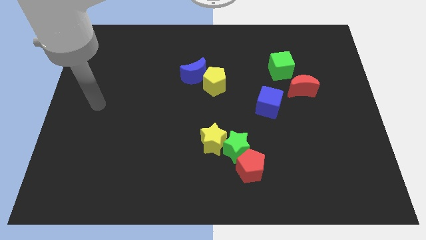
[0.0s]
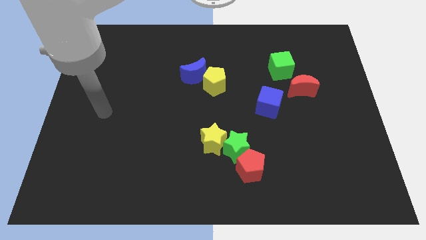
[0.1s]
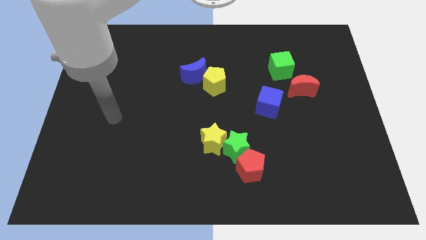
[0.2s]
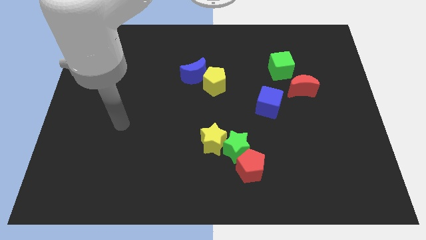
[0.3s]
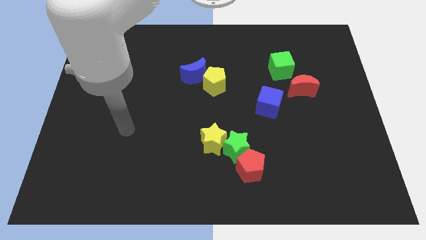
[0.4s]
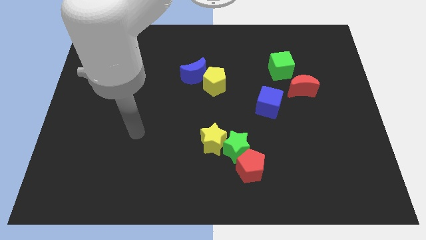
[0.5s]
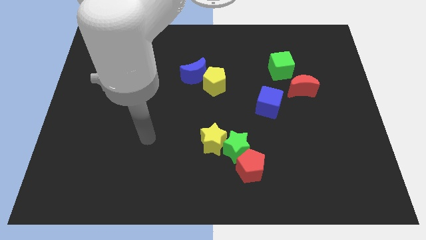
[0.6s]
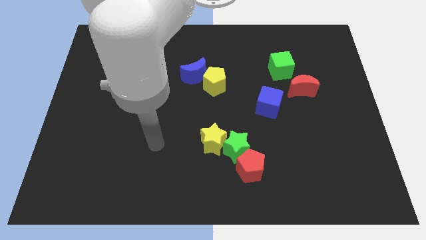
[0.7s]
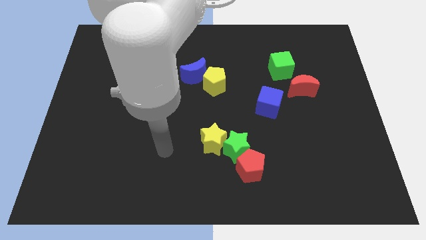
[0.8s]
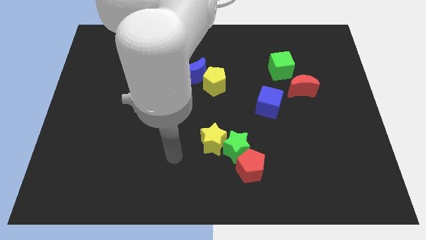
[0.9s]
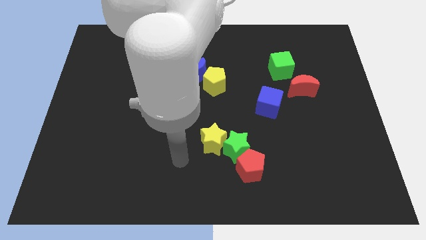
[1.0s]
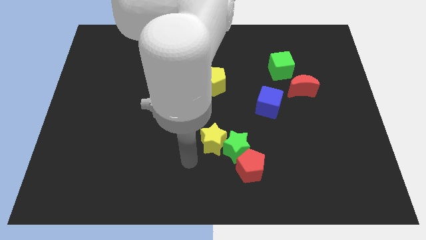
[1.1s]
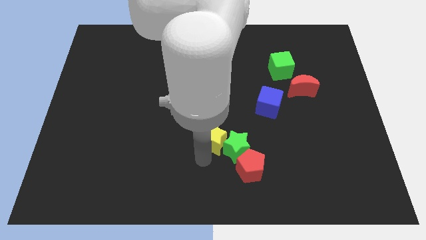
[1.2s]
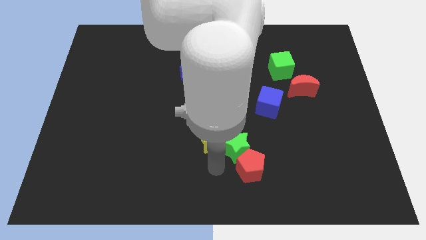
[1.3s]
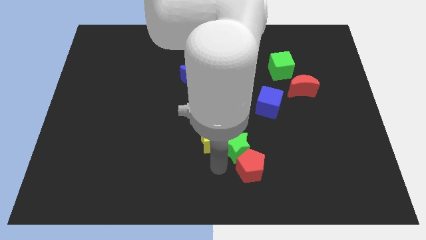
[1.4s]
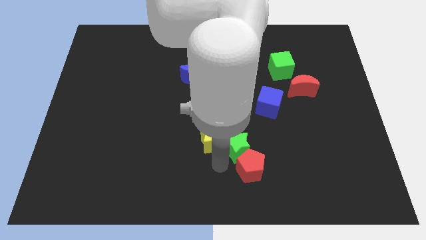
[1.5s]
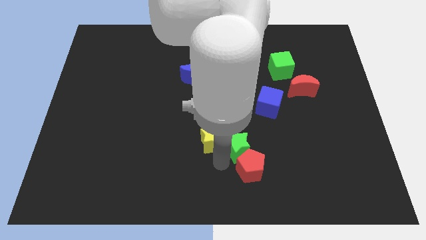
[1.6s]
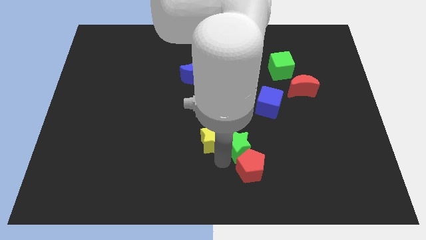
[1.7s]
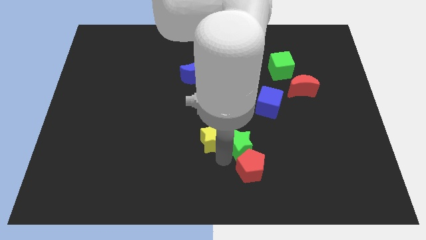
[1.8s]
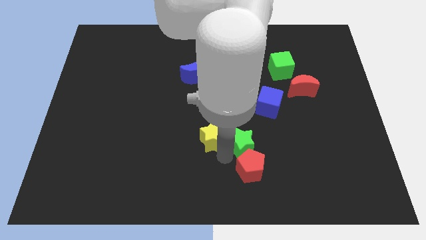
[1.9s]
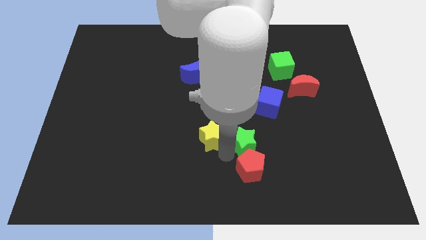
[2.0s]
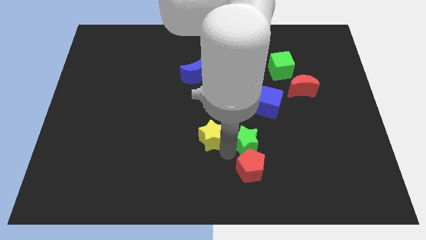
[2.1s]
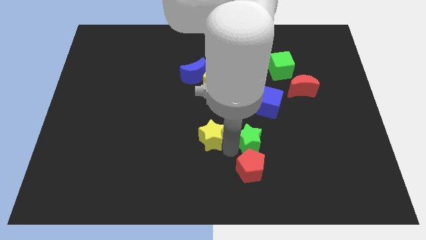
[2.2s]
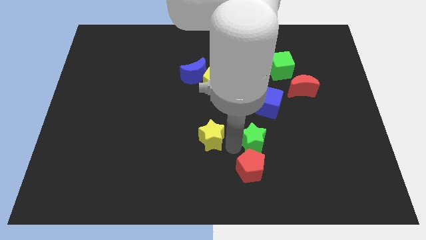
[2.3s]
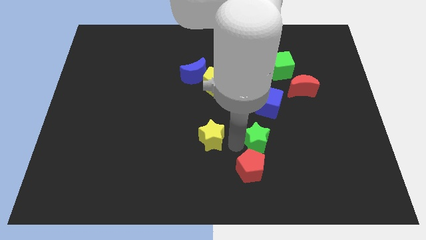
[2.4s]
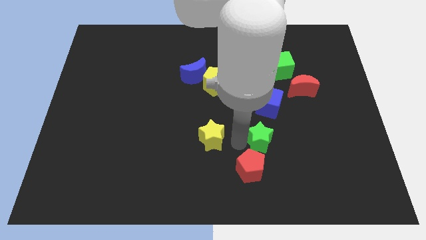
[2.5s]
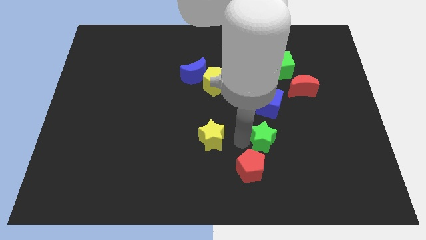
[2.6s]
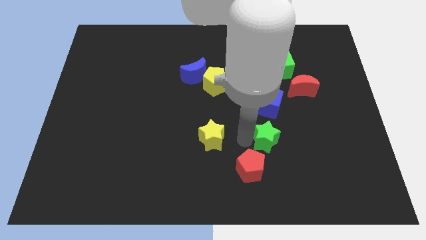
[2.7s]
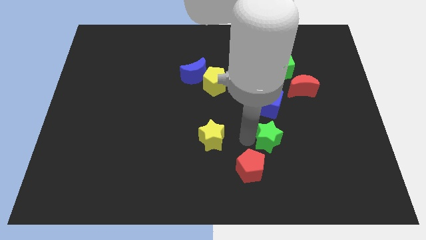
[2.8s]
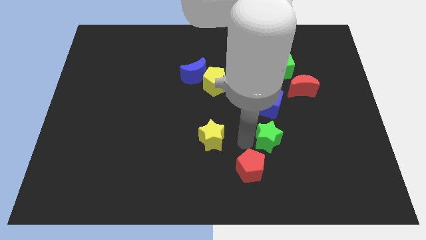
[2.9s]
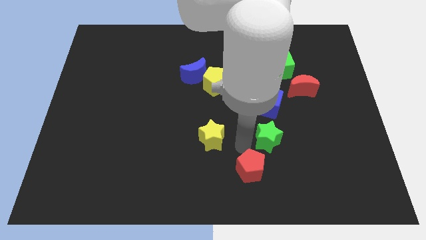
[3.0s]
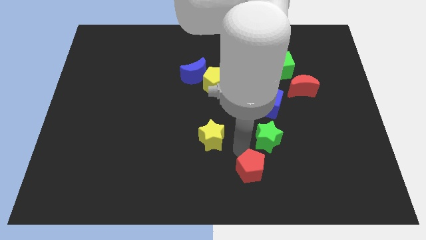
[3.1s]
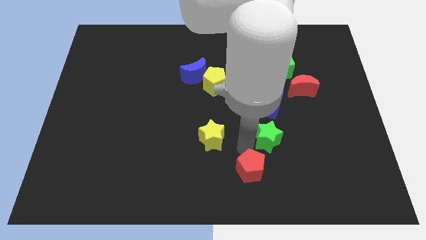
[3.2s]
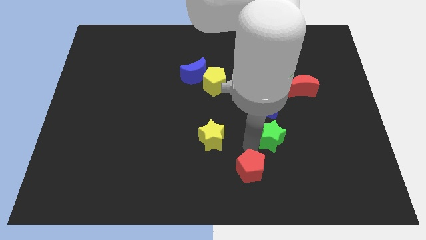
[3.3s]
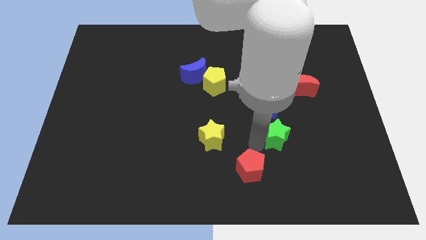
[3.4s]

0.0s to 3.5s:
pull the green star apart from the red pentagon and yellow star

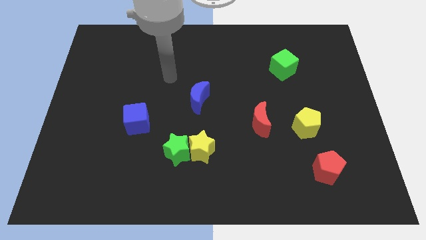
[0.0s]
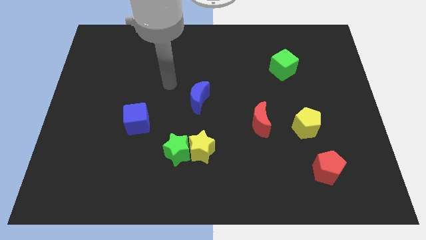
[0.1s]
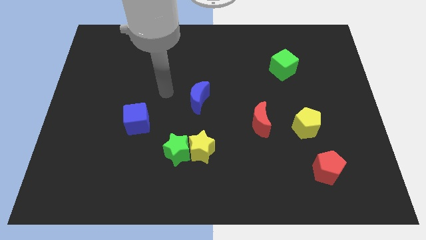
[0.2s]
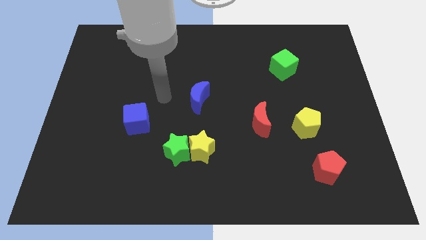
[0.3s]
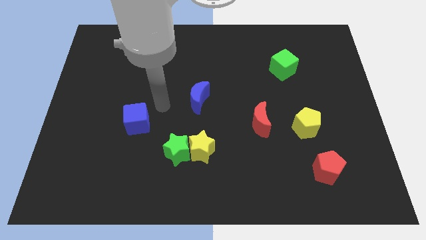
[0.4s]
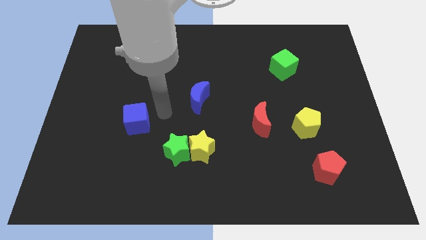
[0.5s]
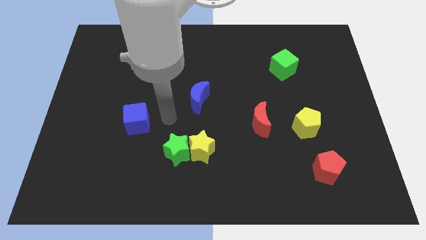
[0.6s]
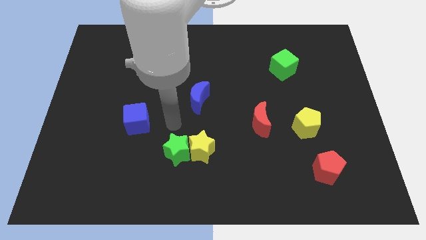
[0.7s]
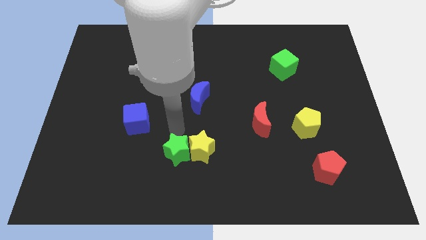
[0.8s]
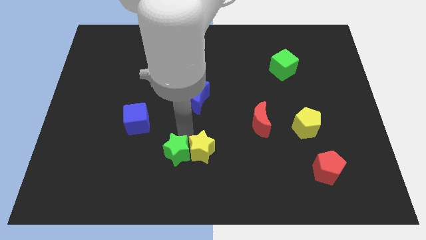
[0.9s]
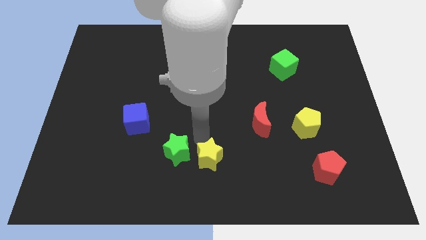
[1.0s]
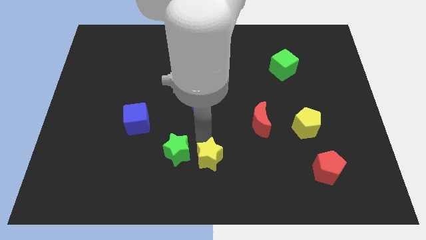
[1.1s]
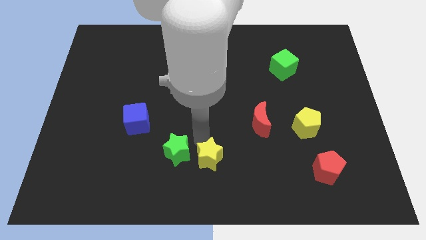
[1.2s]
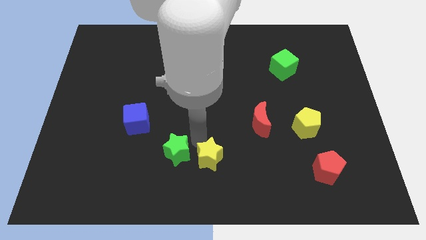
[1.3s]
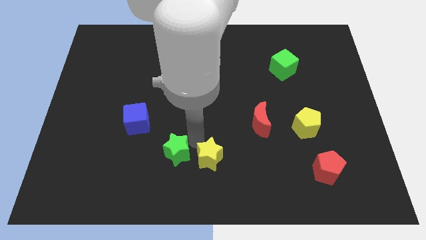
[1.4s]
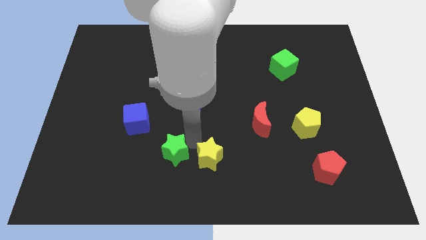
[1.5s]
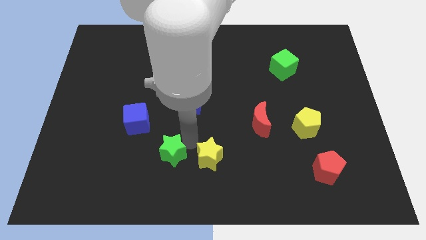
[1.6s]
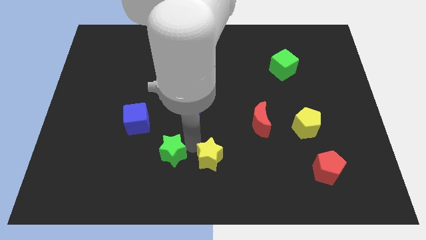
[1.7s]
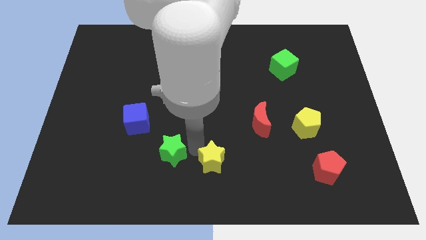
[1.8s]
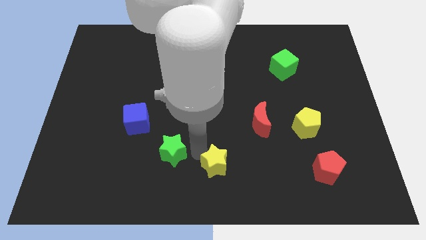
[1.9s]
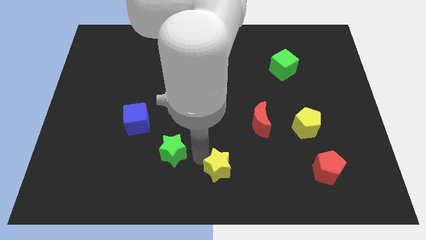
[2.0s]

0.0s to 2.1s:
separate the green star from the yellow star

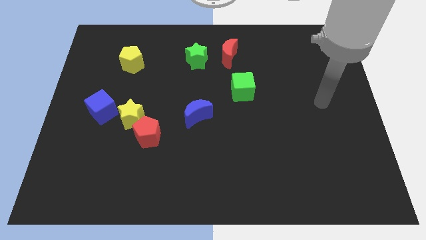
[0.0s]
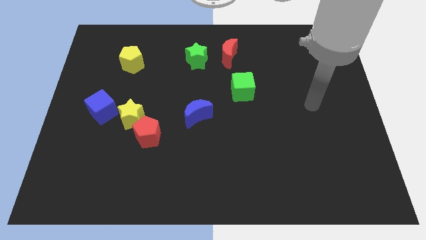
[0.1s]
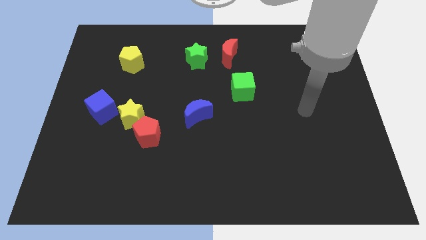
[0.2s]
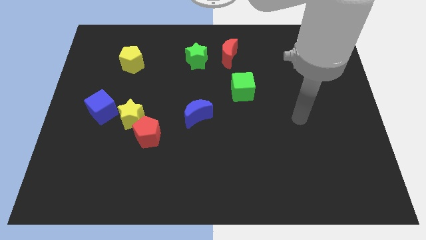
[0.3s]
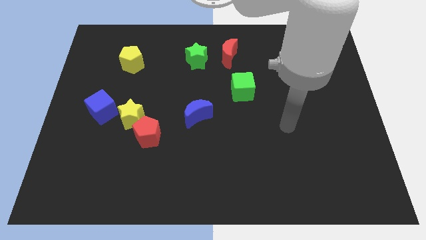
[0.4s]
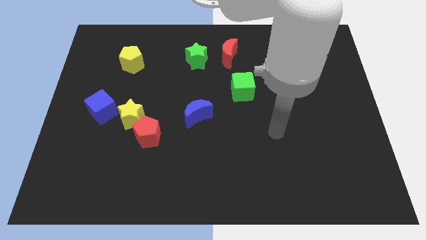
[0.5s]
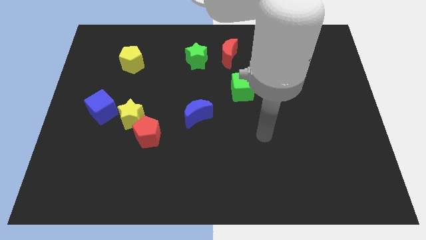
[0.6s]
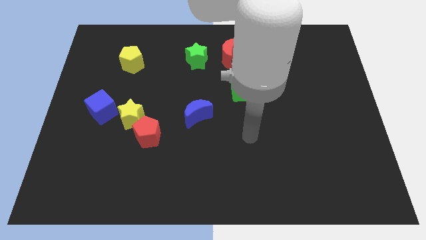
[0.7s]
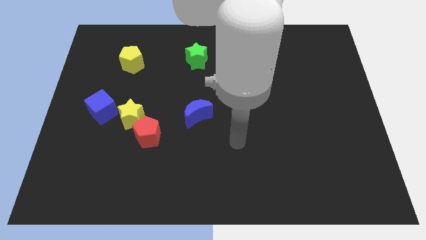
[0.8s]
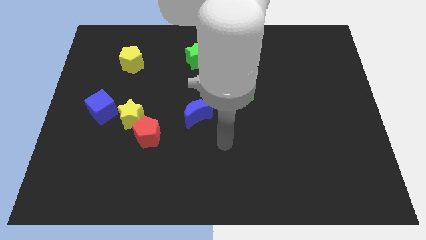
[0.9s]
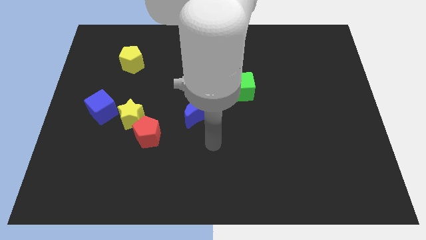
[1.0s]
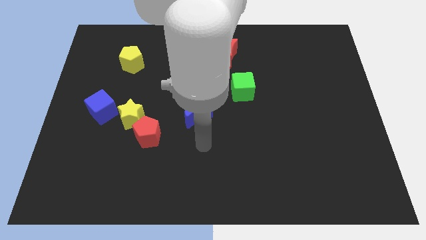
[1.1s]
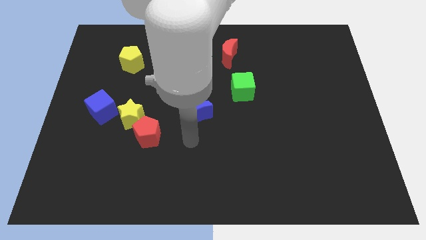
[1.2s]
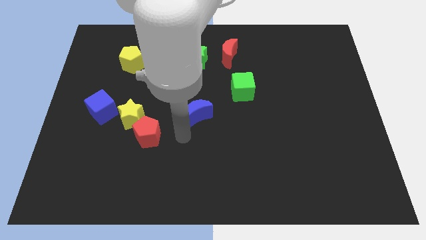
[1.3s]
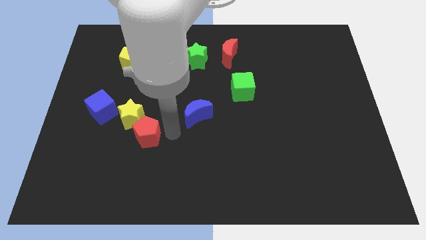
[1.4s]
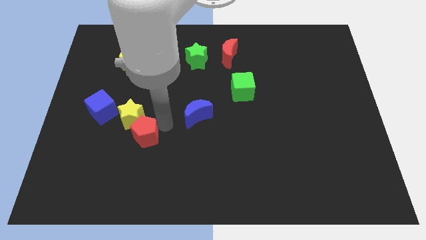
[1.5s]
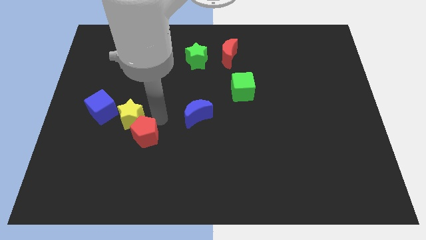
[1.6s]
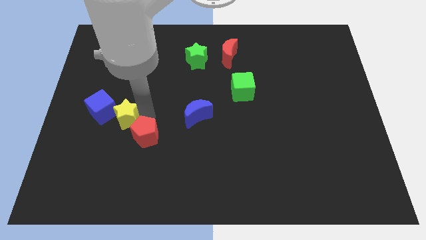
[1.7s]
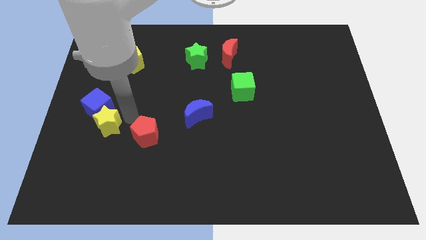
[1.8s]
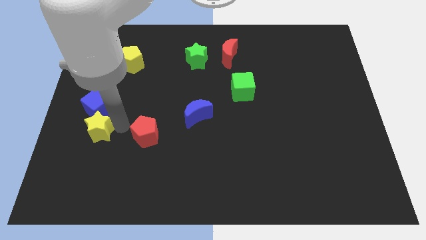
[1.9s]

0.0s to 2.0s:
separate the red pentagon from the yellow star

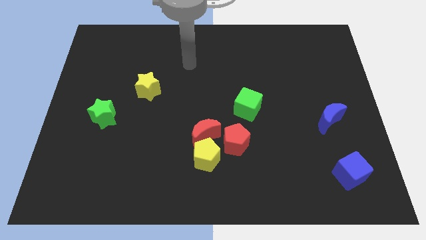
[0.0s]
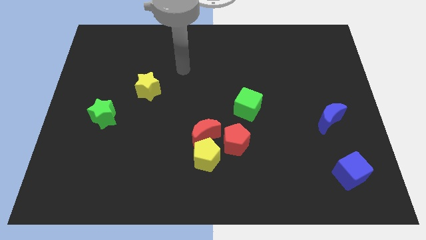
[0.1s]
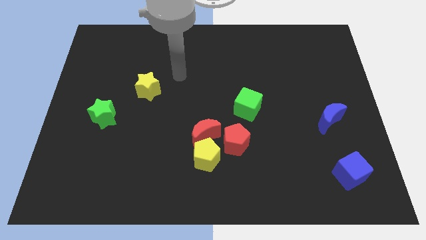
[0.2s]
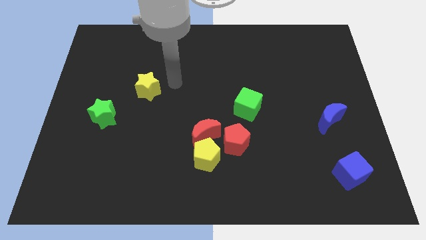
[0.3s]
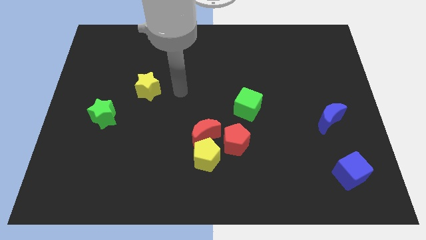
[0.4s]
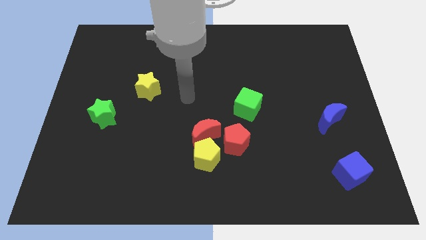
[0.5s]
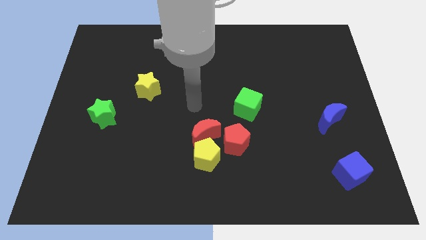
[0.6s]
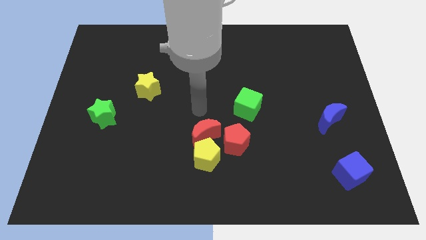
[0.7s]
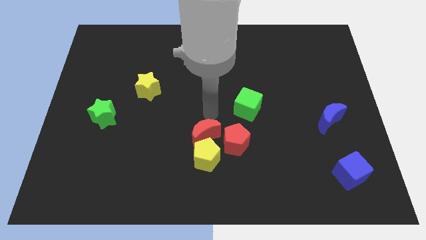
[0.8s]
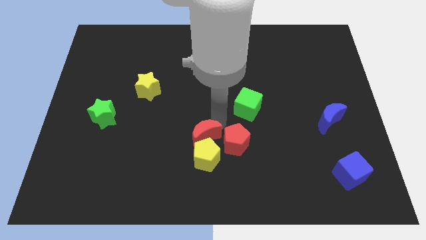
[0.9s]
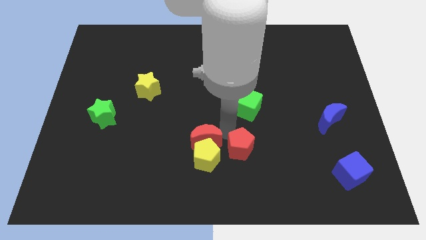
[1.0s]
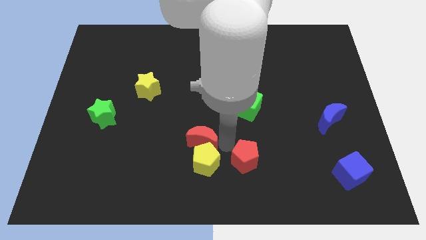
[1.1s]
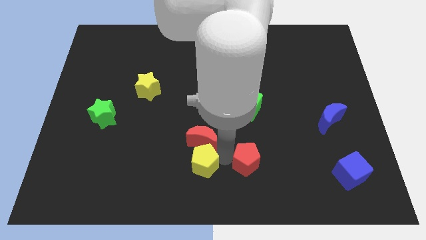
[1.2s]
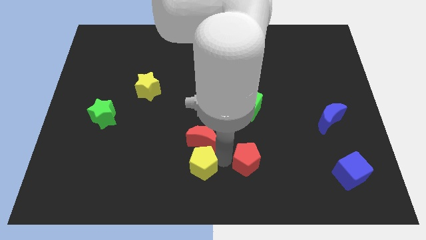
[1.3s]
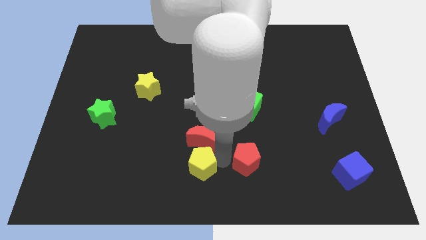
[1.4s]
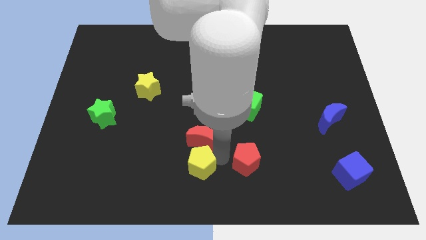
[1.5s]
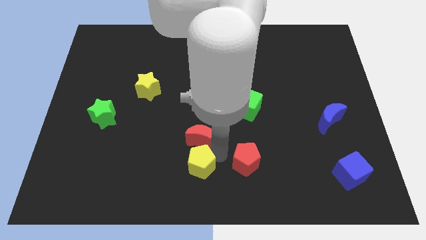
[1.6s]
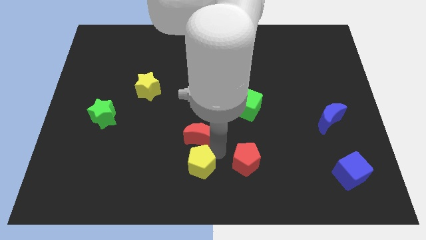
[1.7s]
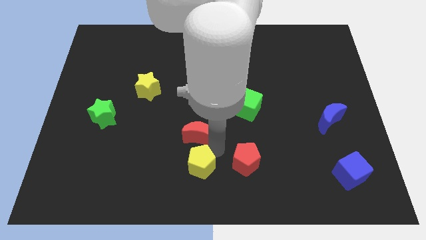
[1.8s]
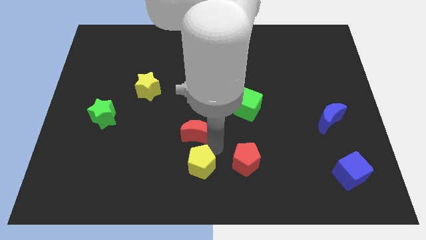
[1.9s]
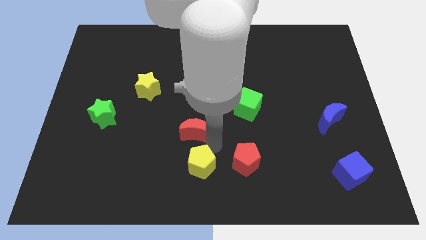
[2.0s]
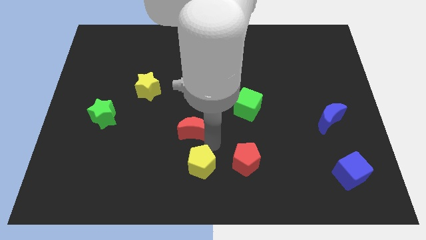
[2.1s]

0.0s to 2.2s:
move the red moon away from the yellow pentagon and red pentagon
